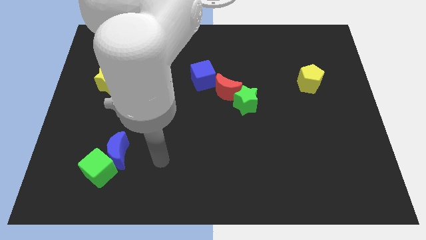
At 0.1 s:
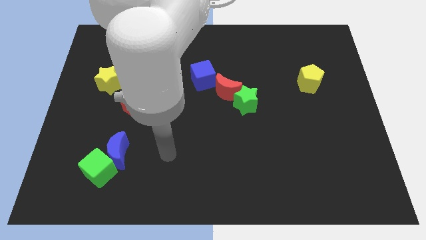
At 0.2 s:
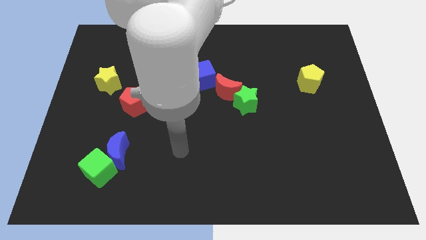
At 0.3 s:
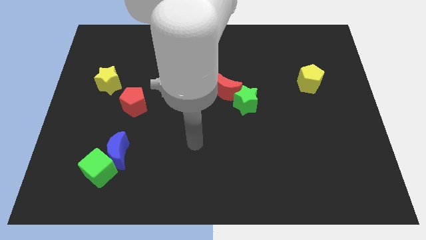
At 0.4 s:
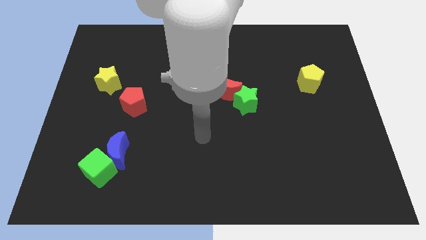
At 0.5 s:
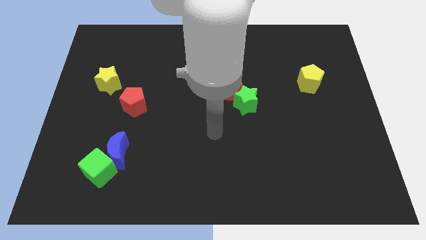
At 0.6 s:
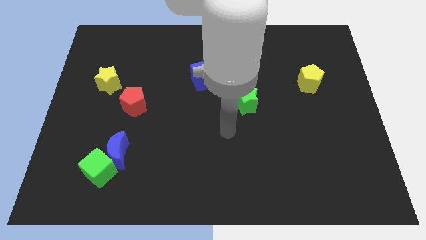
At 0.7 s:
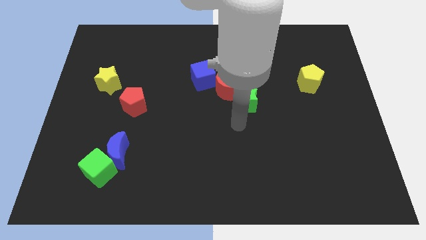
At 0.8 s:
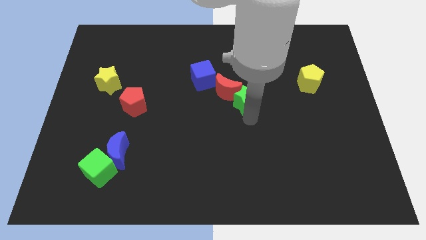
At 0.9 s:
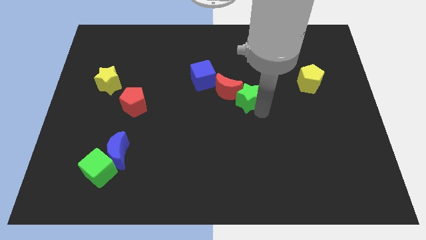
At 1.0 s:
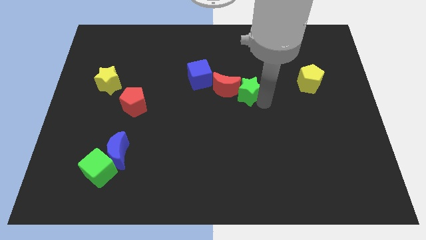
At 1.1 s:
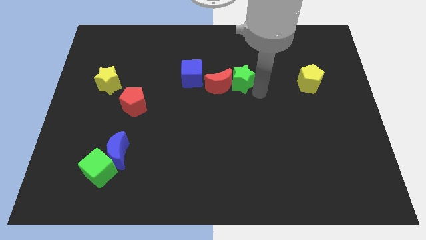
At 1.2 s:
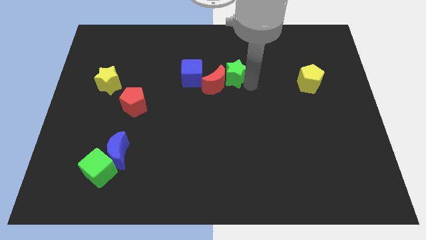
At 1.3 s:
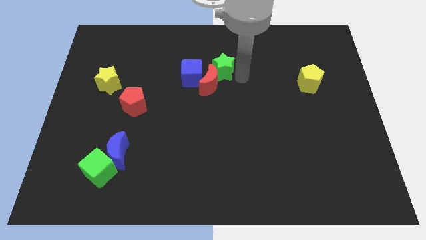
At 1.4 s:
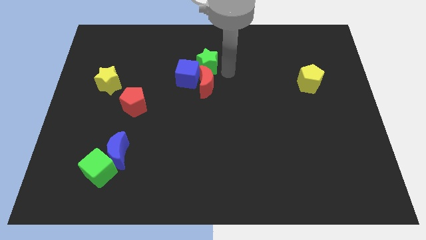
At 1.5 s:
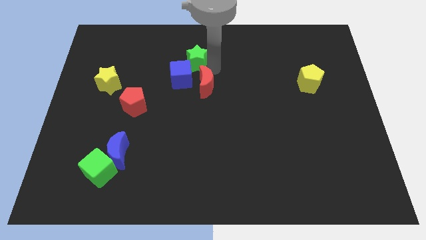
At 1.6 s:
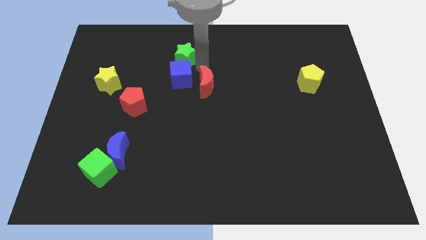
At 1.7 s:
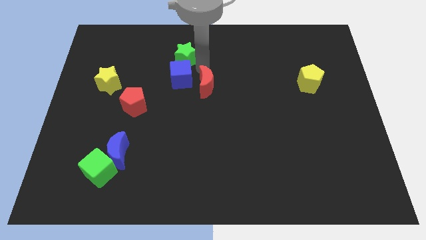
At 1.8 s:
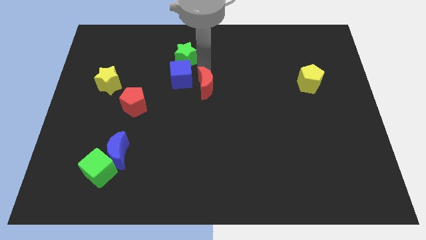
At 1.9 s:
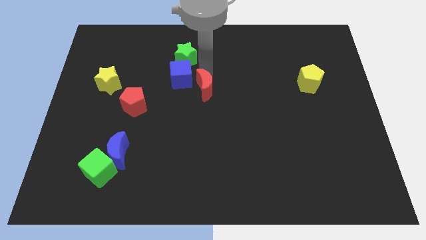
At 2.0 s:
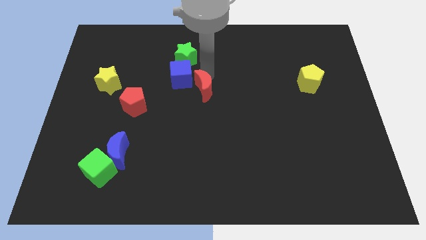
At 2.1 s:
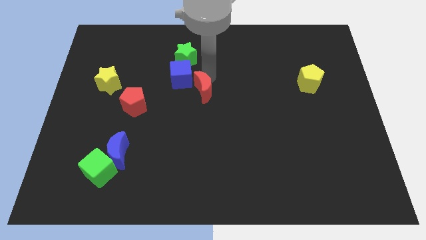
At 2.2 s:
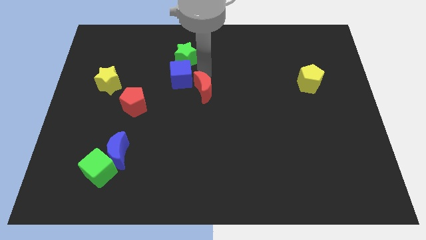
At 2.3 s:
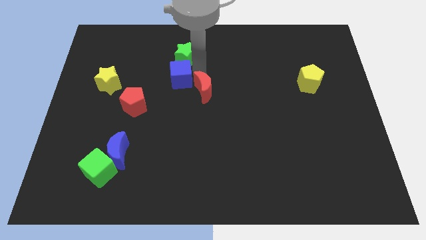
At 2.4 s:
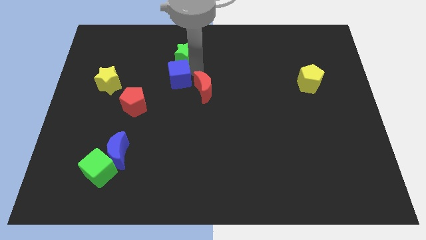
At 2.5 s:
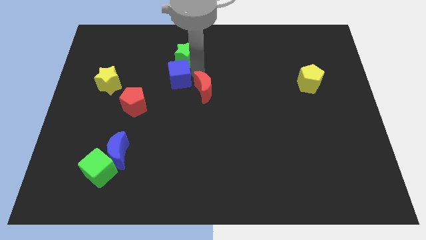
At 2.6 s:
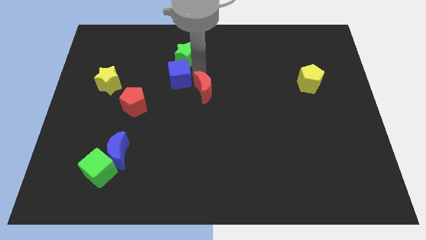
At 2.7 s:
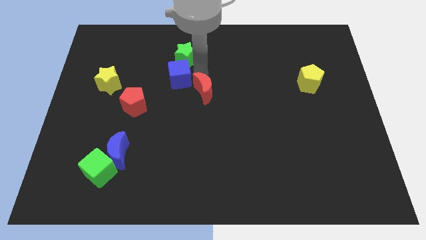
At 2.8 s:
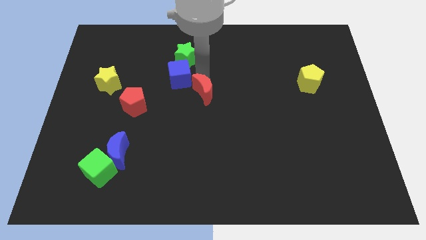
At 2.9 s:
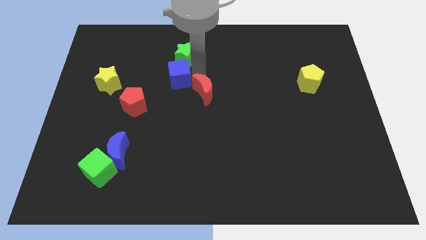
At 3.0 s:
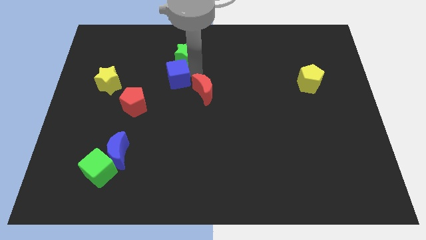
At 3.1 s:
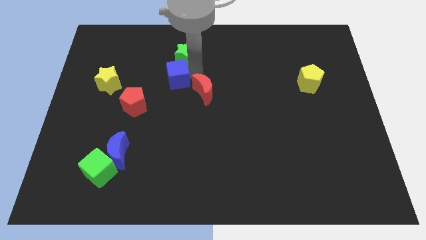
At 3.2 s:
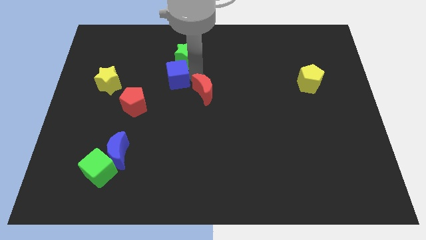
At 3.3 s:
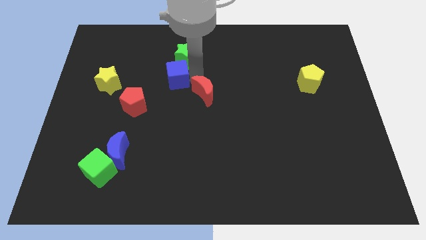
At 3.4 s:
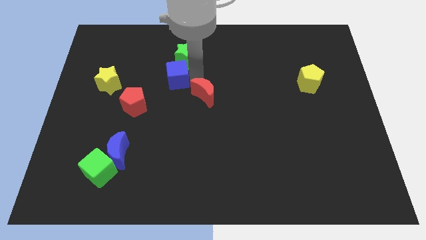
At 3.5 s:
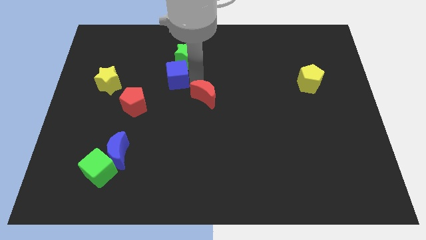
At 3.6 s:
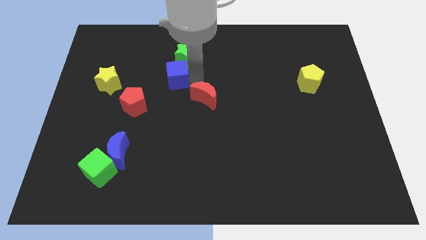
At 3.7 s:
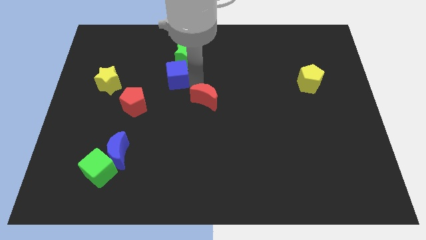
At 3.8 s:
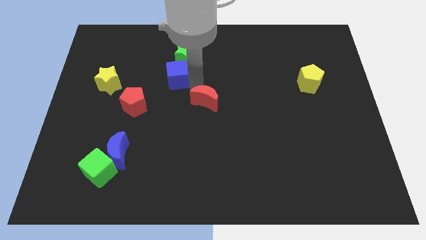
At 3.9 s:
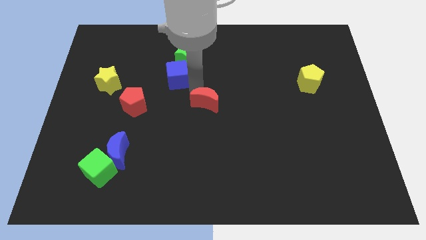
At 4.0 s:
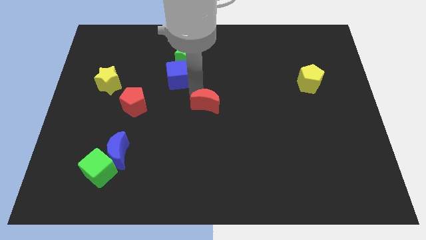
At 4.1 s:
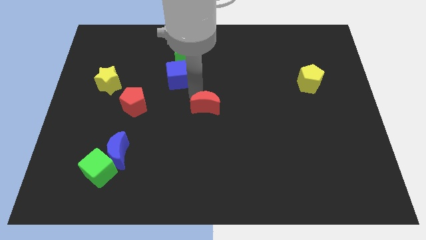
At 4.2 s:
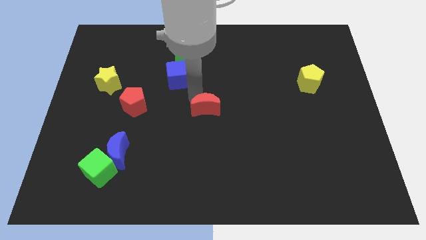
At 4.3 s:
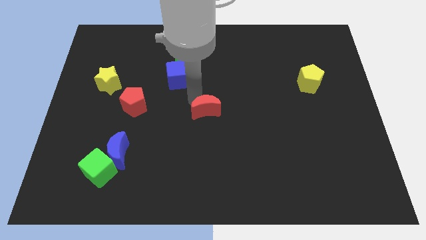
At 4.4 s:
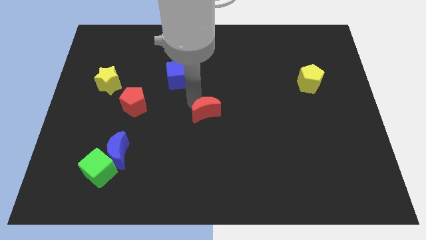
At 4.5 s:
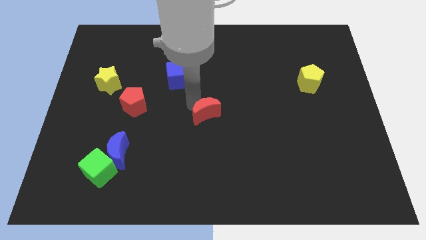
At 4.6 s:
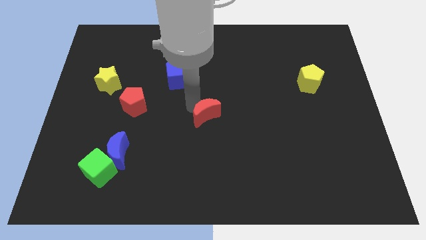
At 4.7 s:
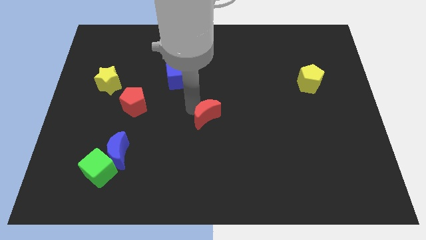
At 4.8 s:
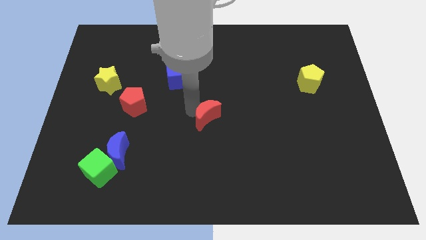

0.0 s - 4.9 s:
move the red moon a little down

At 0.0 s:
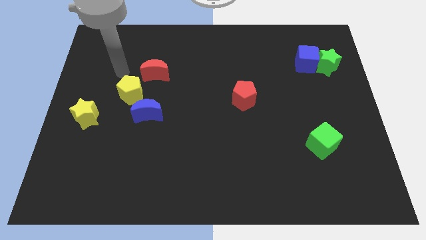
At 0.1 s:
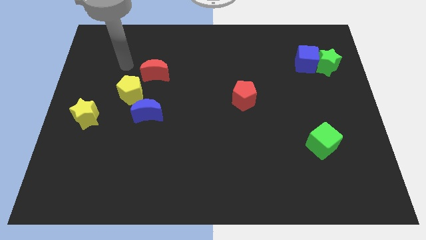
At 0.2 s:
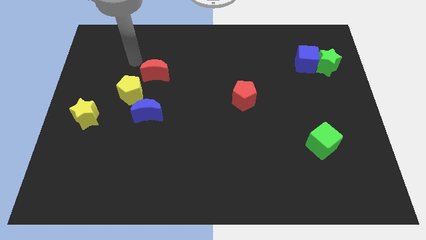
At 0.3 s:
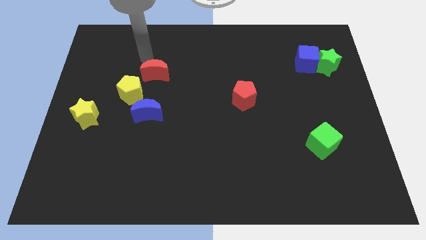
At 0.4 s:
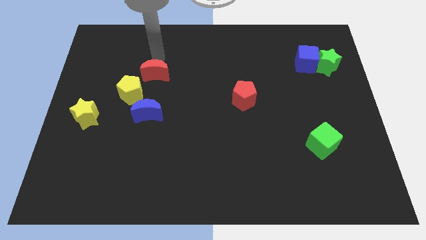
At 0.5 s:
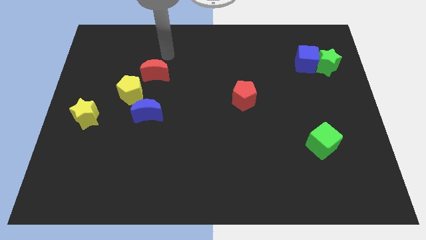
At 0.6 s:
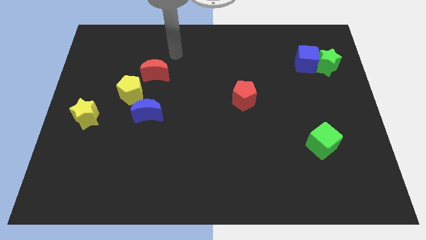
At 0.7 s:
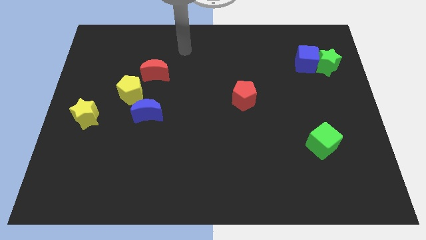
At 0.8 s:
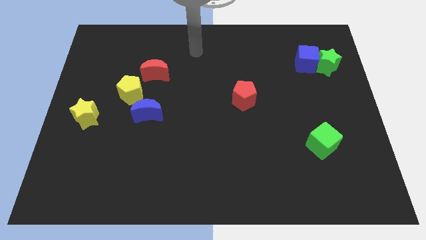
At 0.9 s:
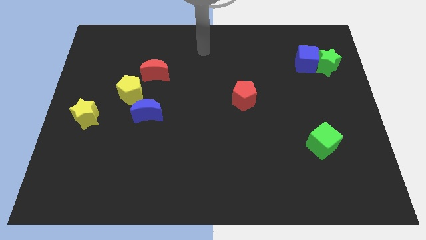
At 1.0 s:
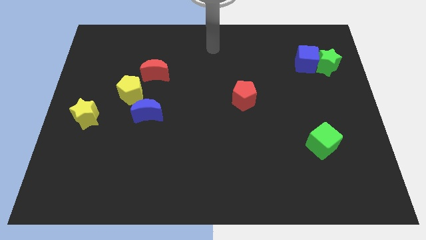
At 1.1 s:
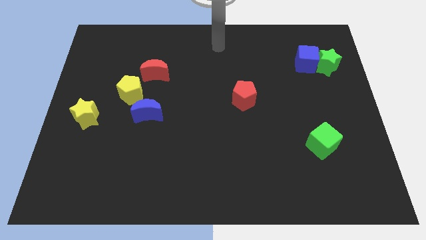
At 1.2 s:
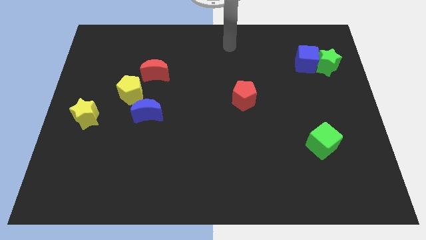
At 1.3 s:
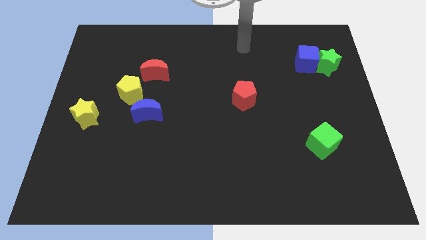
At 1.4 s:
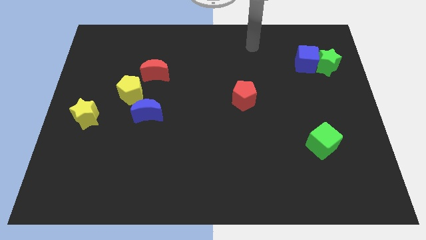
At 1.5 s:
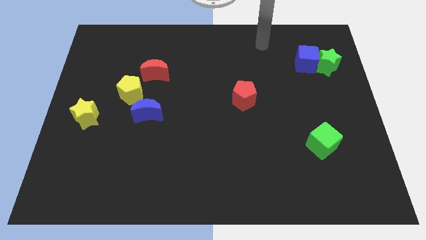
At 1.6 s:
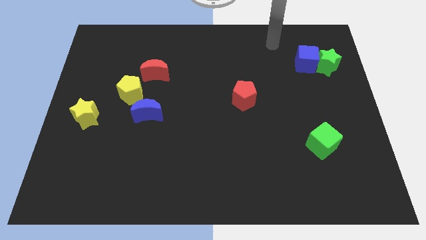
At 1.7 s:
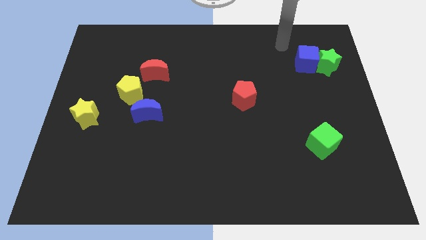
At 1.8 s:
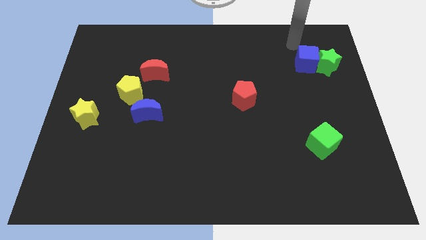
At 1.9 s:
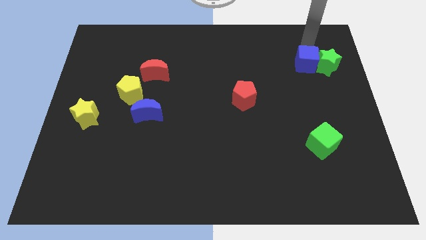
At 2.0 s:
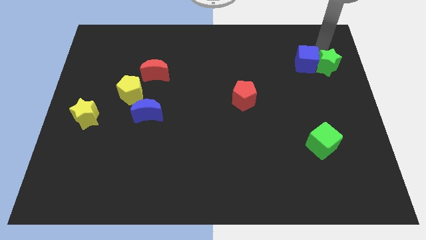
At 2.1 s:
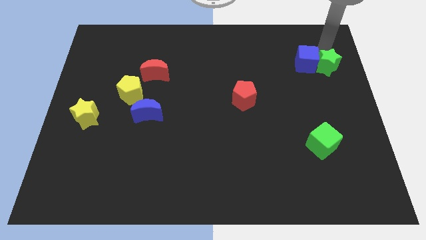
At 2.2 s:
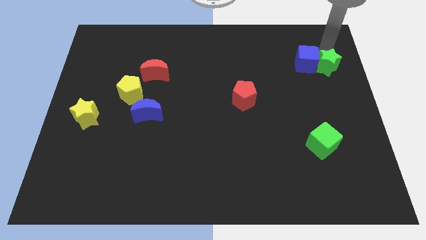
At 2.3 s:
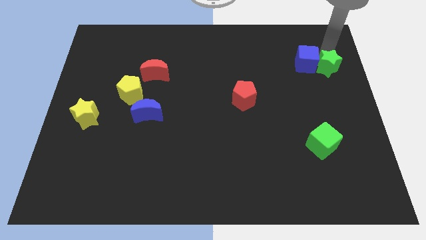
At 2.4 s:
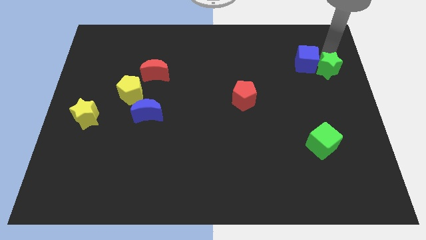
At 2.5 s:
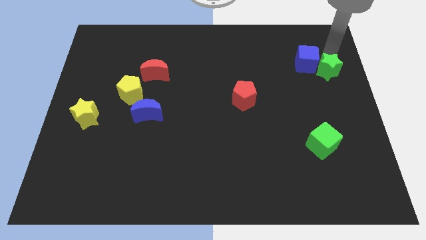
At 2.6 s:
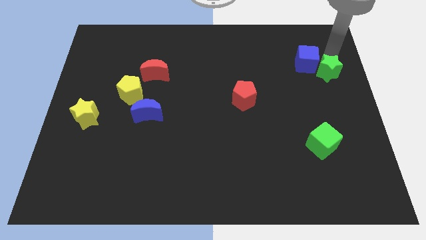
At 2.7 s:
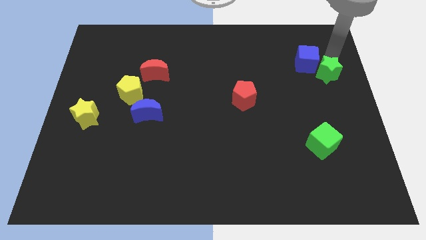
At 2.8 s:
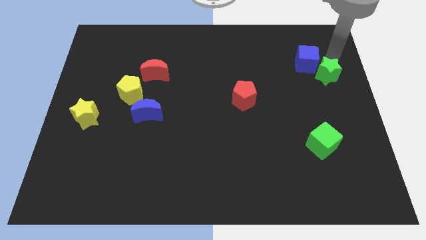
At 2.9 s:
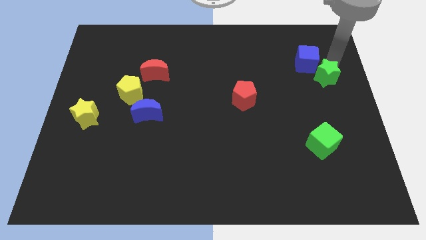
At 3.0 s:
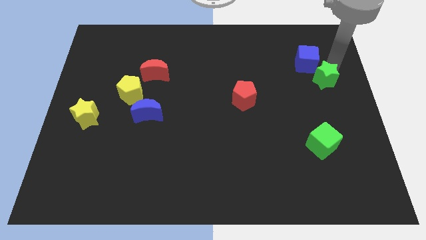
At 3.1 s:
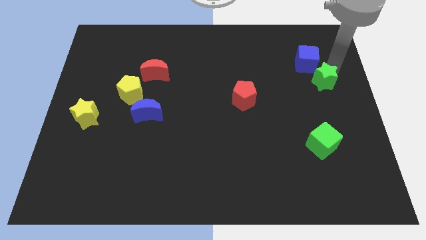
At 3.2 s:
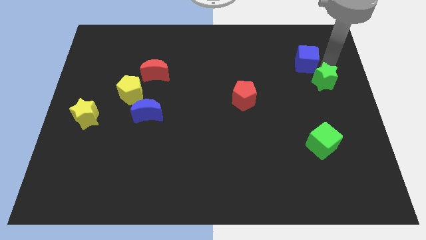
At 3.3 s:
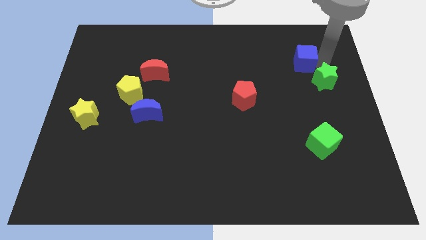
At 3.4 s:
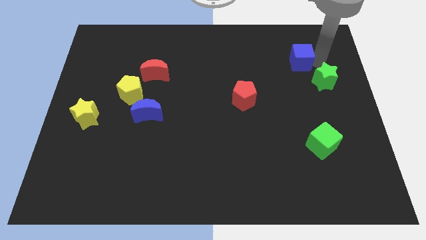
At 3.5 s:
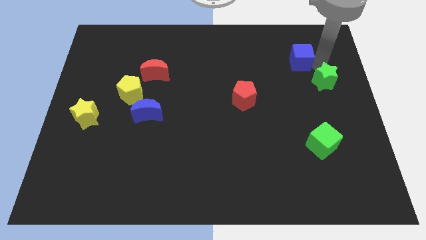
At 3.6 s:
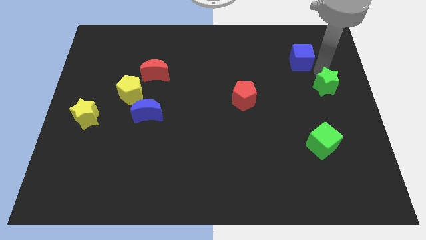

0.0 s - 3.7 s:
slide the green star down a little
